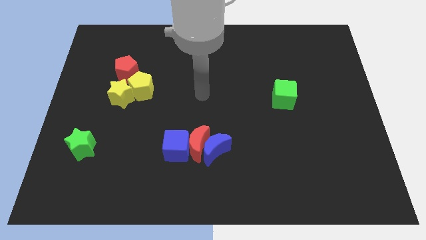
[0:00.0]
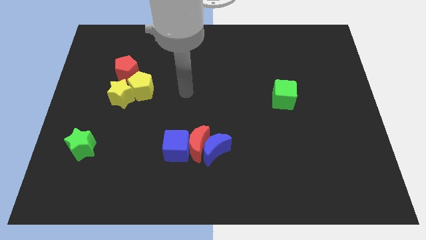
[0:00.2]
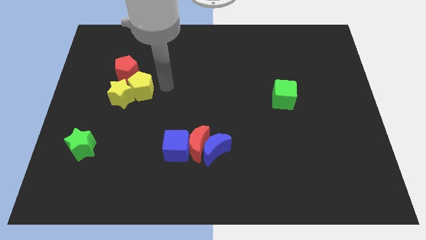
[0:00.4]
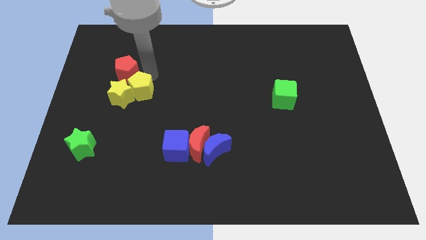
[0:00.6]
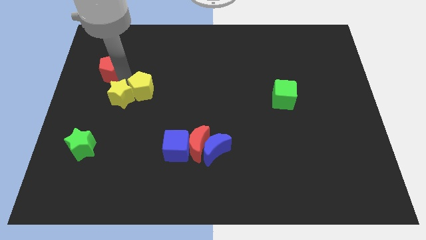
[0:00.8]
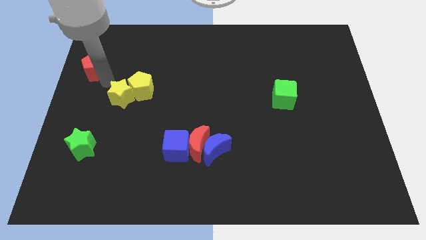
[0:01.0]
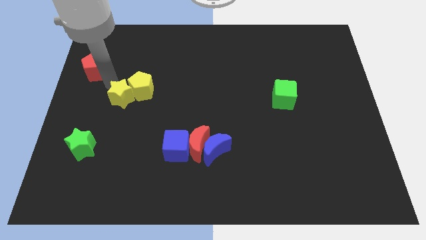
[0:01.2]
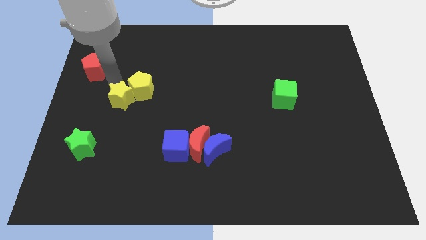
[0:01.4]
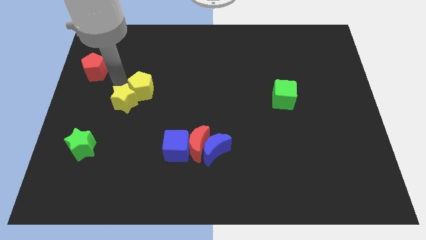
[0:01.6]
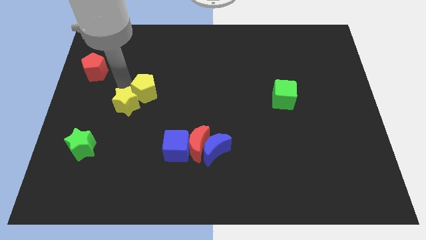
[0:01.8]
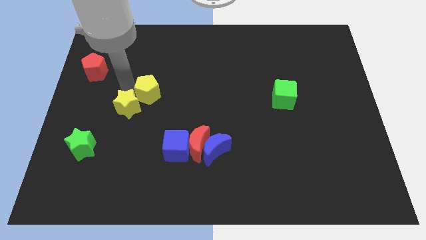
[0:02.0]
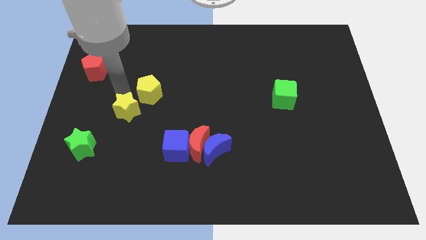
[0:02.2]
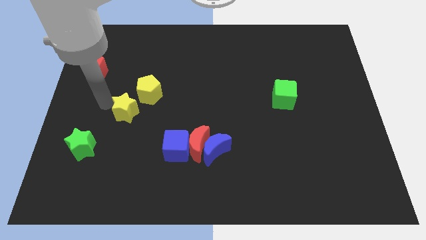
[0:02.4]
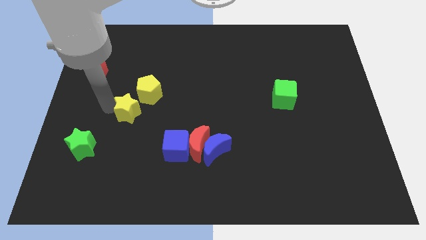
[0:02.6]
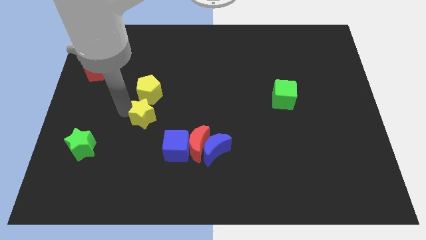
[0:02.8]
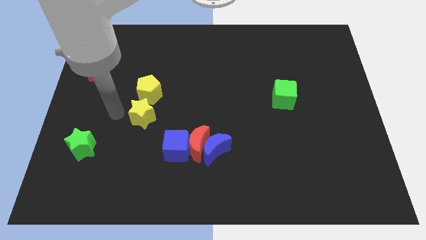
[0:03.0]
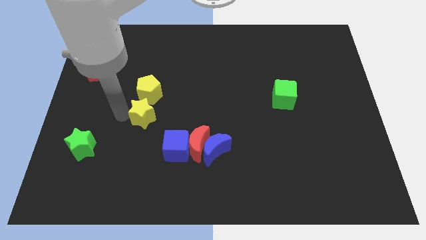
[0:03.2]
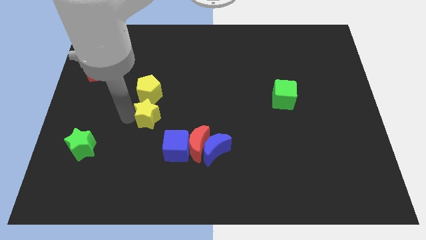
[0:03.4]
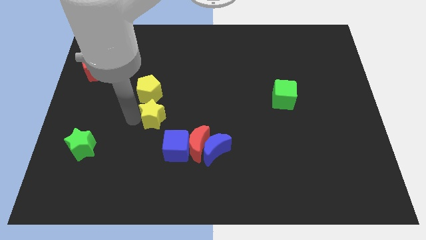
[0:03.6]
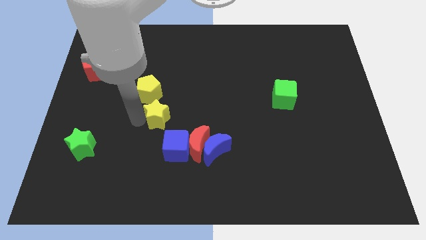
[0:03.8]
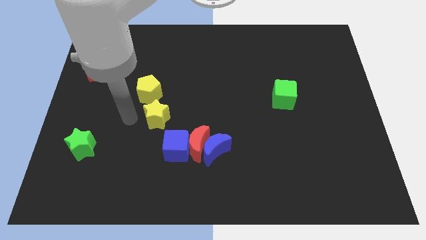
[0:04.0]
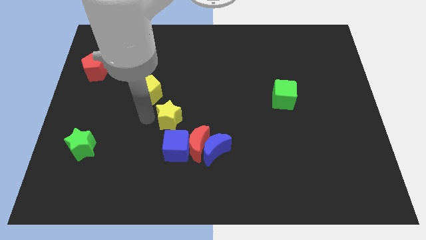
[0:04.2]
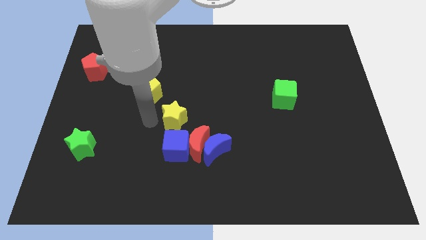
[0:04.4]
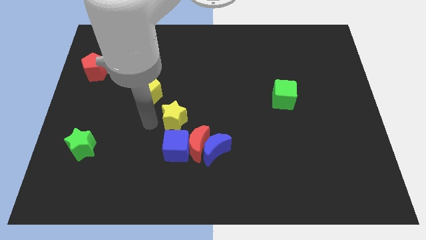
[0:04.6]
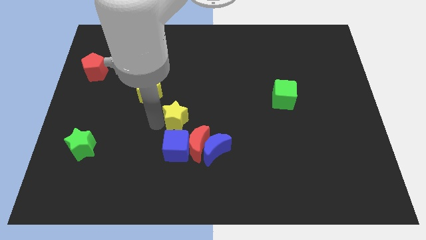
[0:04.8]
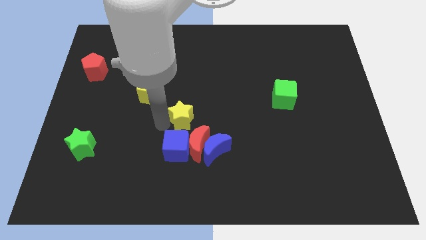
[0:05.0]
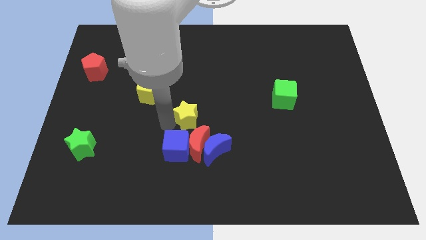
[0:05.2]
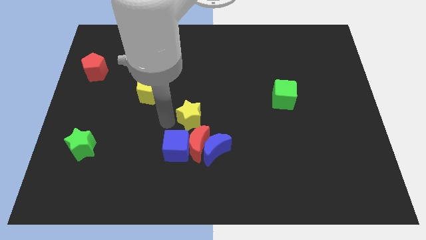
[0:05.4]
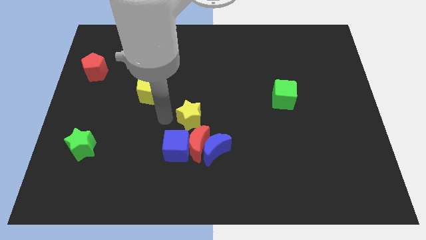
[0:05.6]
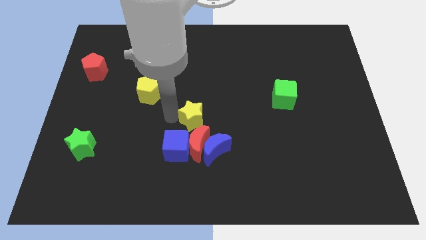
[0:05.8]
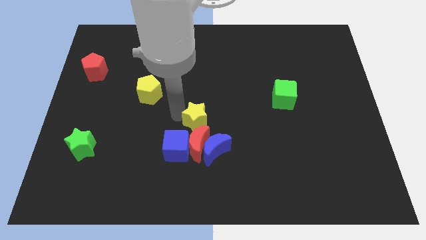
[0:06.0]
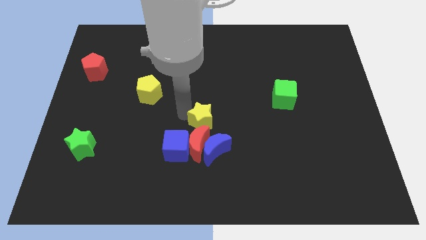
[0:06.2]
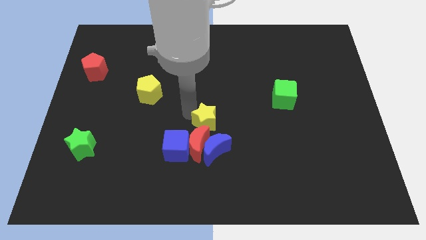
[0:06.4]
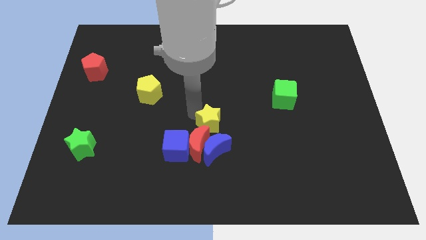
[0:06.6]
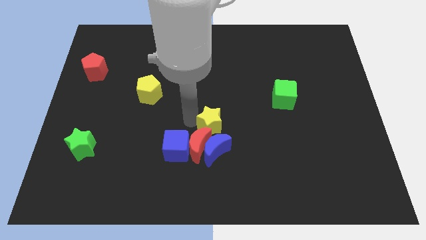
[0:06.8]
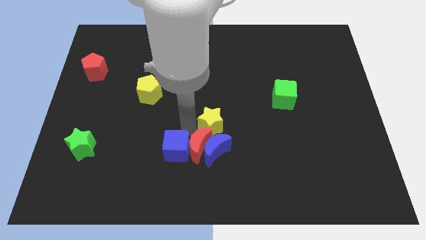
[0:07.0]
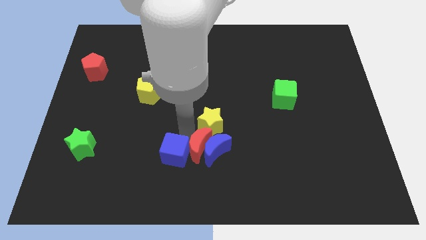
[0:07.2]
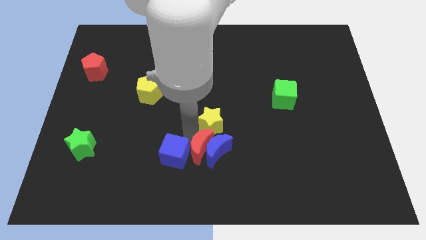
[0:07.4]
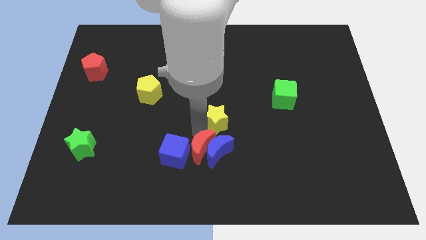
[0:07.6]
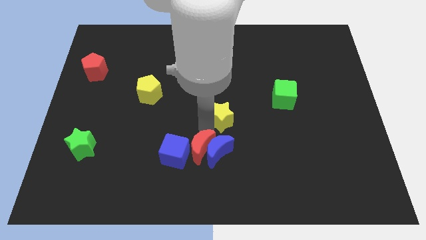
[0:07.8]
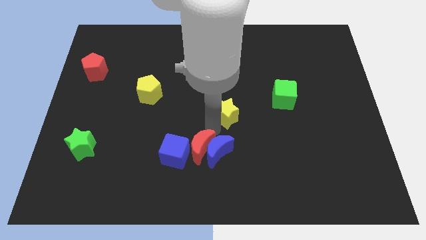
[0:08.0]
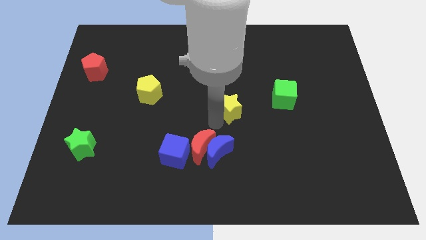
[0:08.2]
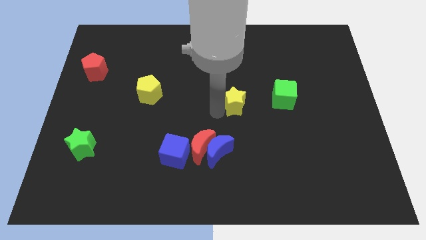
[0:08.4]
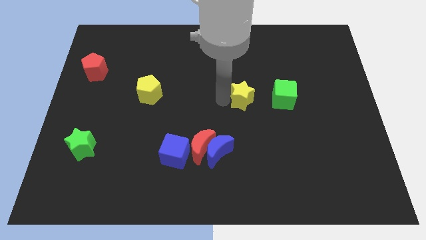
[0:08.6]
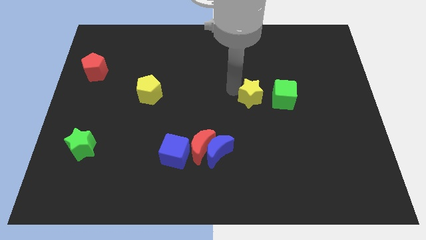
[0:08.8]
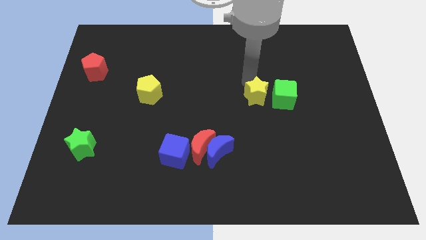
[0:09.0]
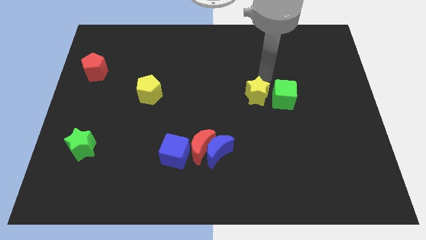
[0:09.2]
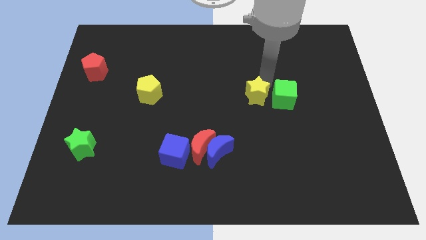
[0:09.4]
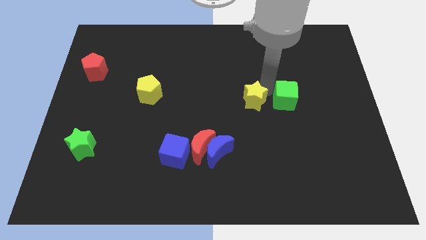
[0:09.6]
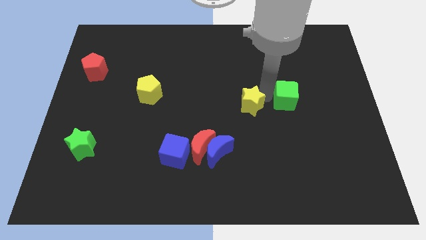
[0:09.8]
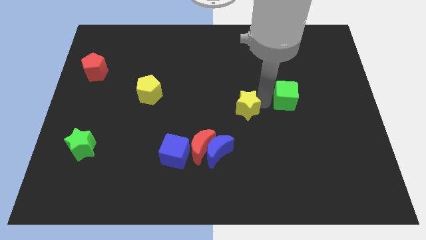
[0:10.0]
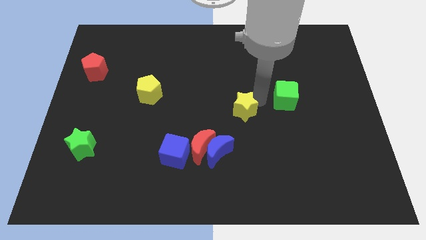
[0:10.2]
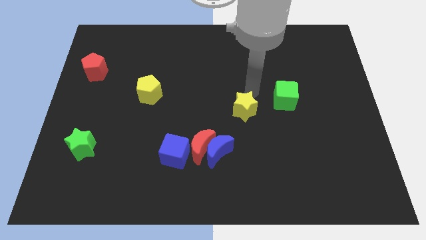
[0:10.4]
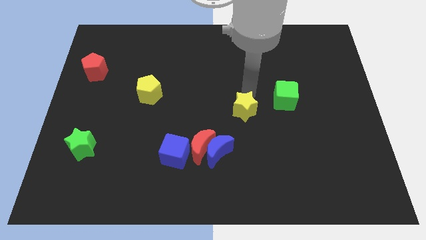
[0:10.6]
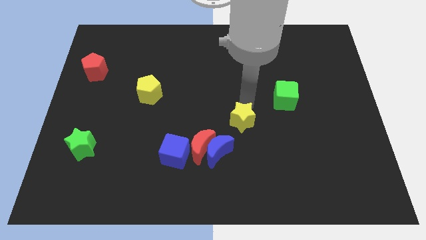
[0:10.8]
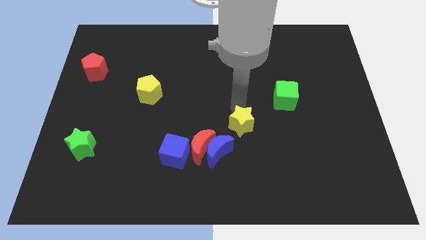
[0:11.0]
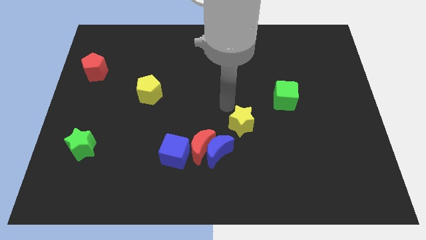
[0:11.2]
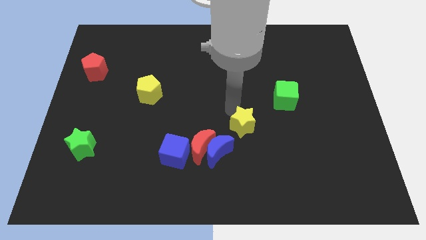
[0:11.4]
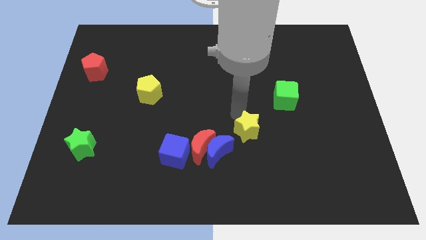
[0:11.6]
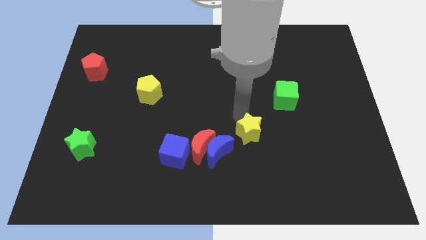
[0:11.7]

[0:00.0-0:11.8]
slide the yellow star right of the blue moon

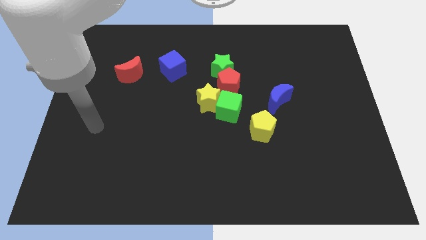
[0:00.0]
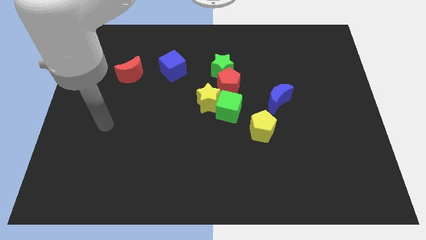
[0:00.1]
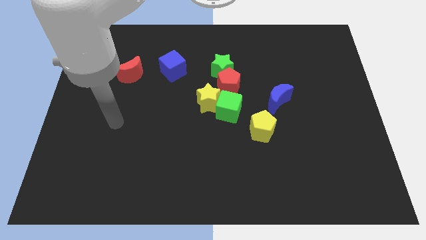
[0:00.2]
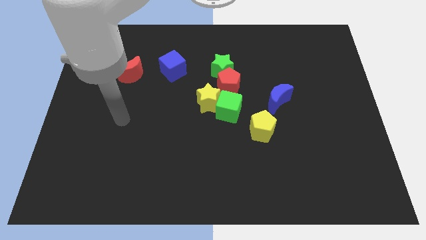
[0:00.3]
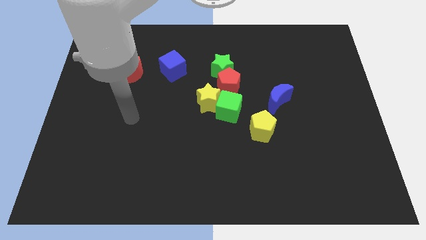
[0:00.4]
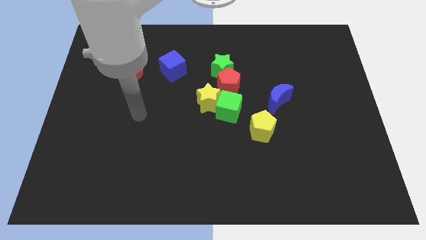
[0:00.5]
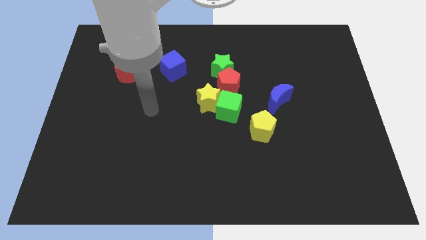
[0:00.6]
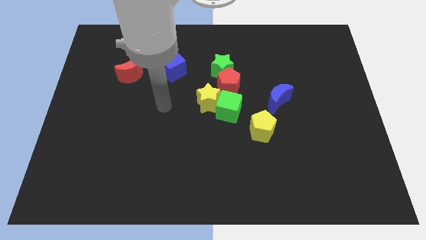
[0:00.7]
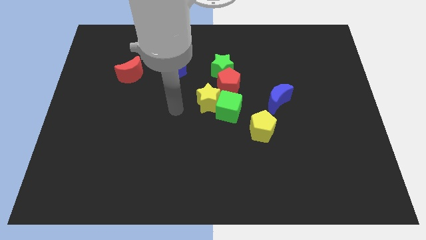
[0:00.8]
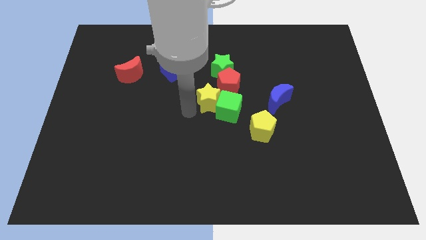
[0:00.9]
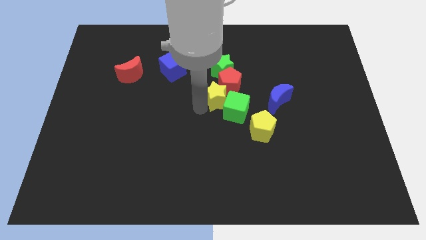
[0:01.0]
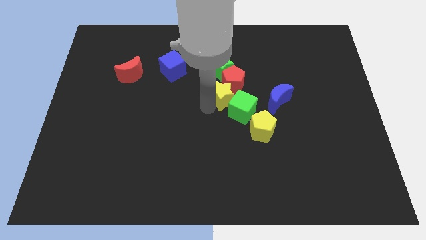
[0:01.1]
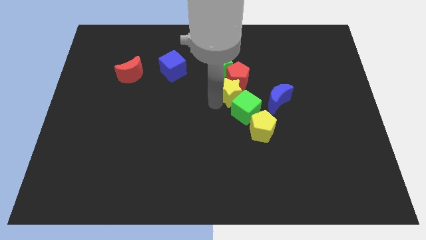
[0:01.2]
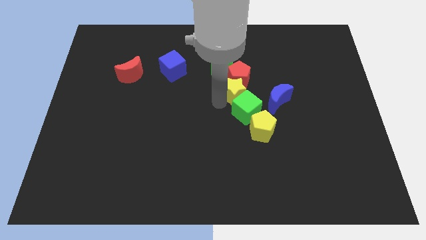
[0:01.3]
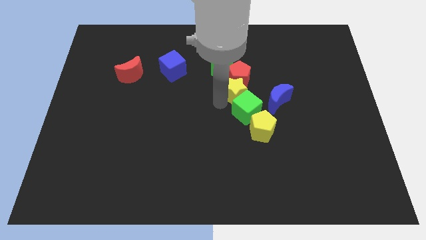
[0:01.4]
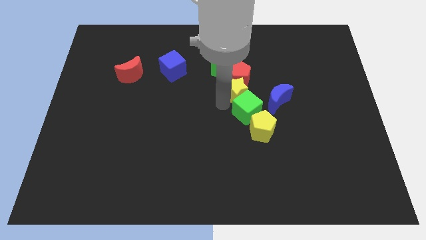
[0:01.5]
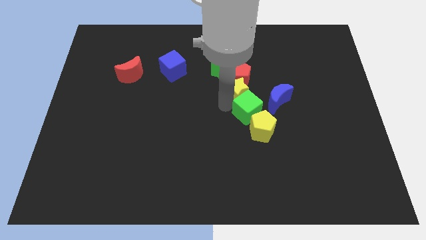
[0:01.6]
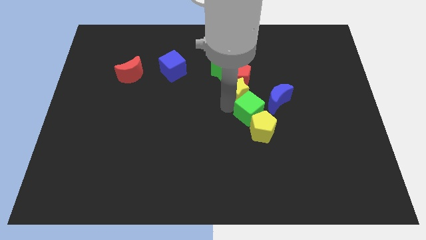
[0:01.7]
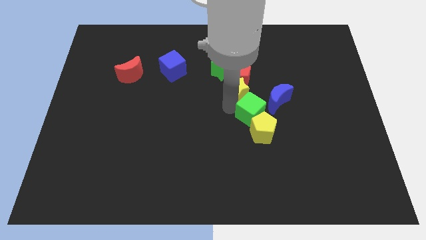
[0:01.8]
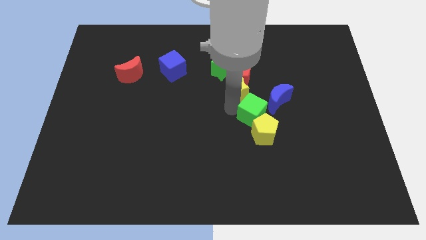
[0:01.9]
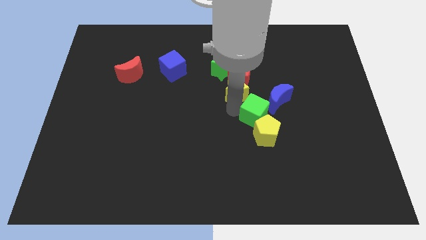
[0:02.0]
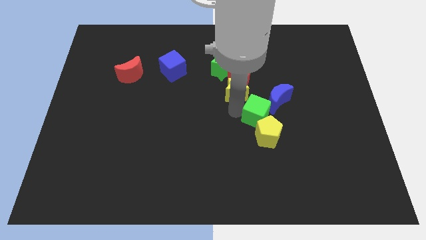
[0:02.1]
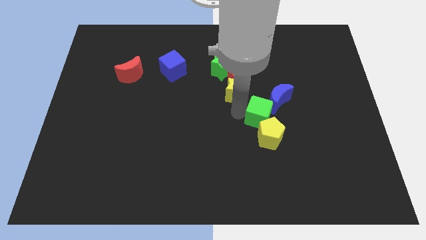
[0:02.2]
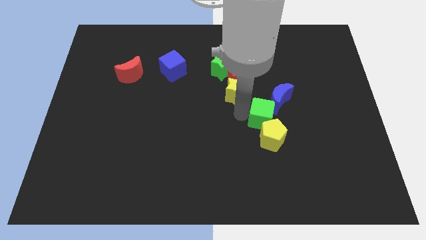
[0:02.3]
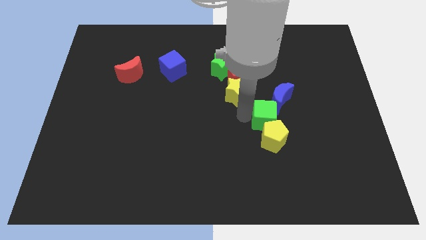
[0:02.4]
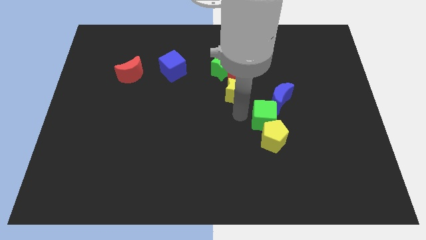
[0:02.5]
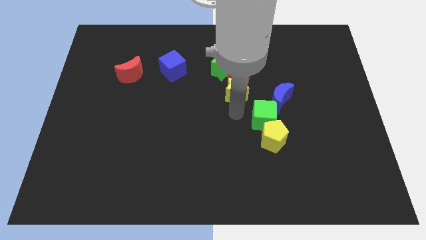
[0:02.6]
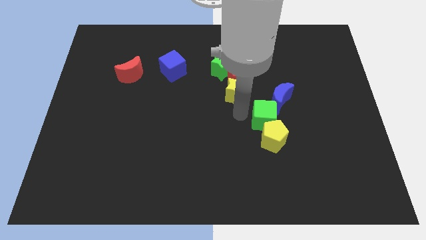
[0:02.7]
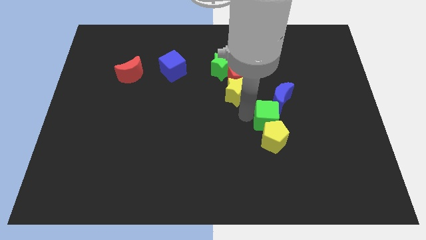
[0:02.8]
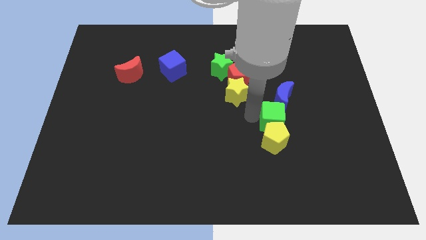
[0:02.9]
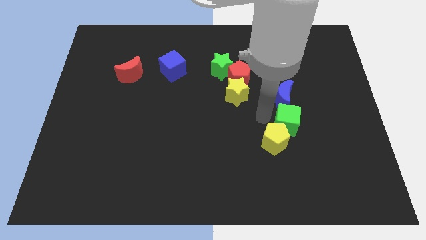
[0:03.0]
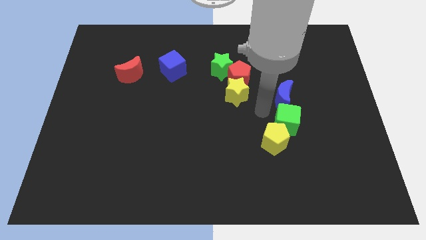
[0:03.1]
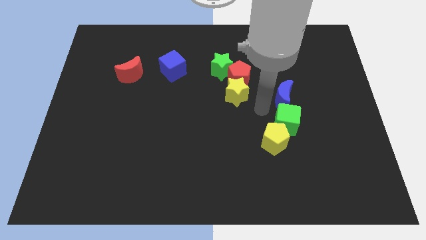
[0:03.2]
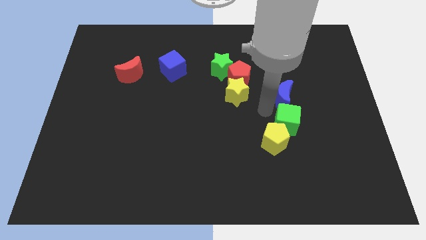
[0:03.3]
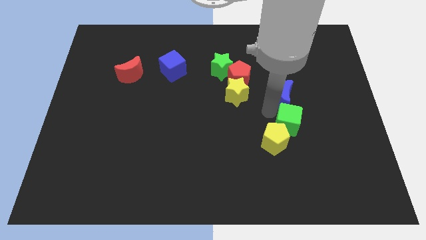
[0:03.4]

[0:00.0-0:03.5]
put the green cube to the right of the yellow pentagon
